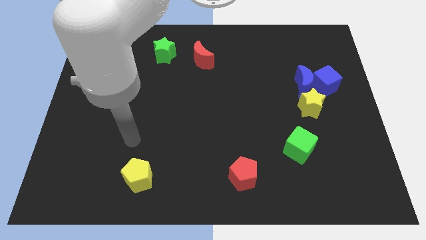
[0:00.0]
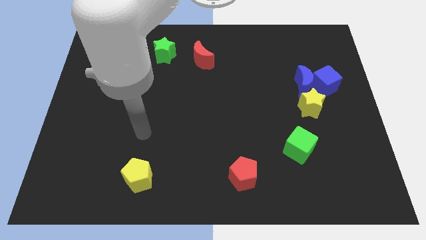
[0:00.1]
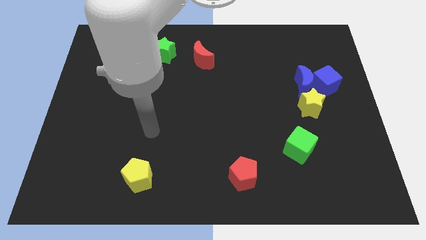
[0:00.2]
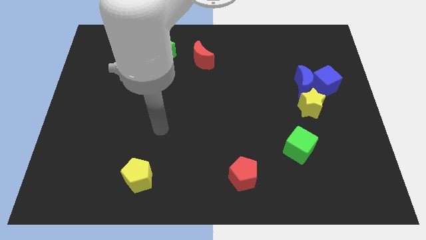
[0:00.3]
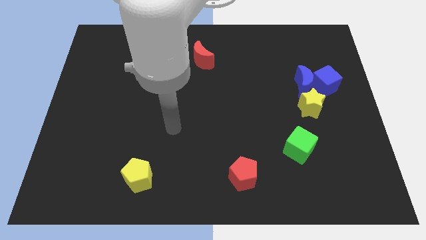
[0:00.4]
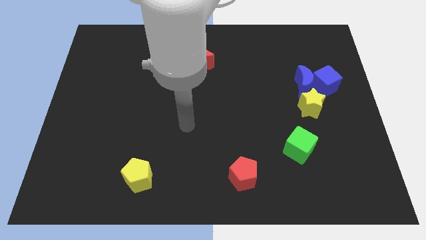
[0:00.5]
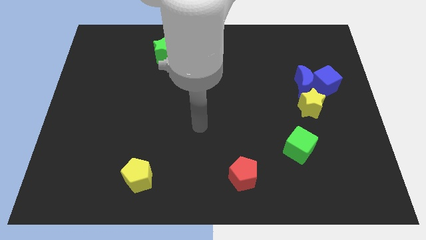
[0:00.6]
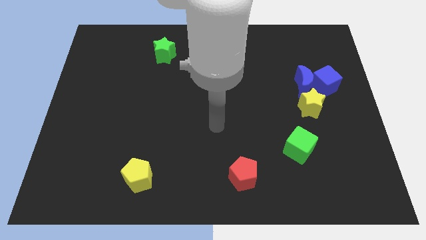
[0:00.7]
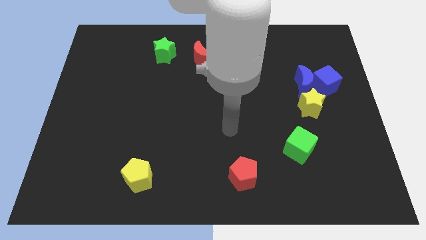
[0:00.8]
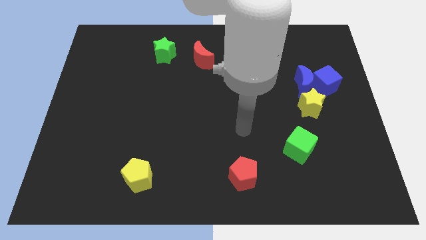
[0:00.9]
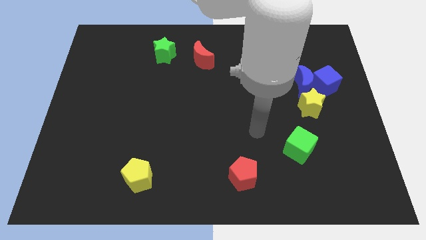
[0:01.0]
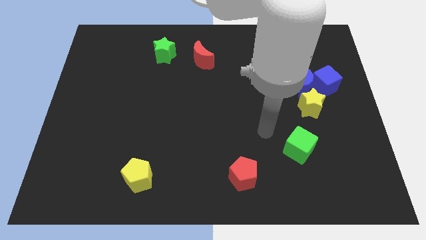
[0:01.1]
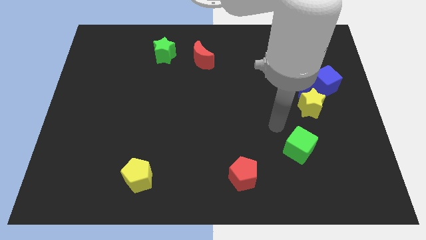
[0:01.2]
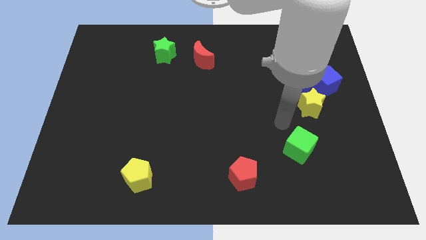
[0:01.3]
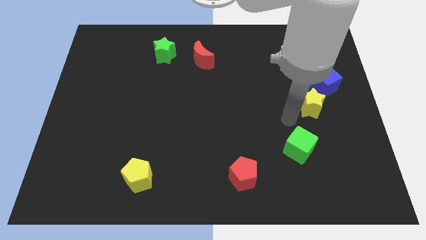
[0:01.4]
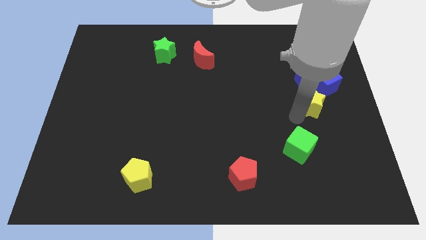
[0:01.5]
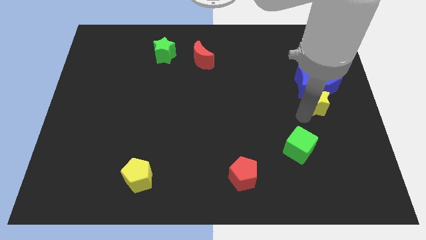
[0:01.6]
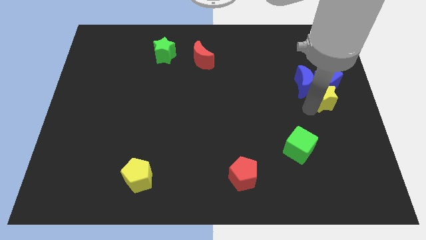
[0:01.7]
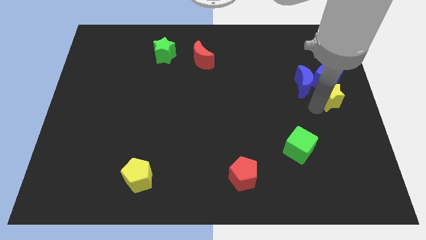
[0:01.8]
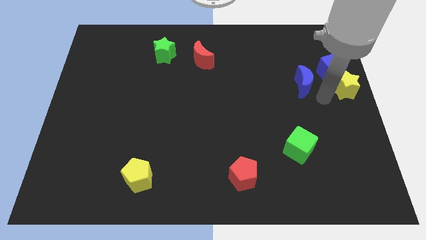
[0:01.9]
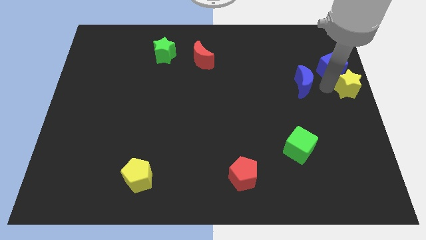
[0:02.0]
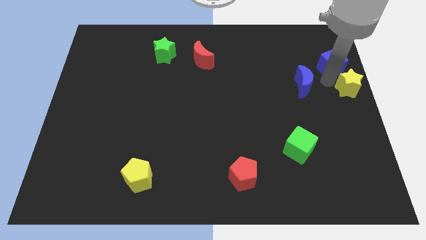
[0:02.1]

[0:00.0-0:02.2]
pull the blue moon apart from the blue cube and yellow star

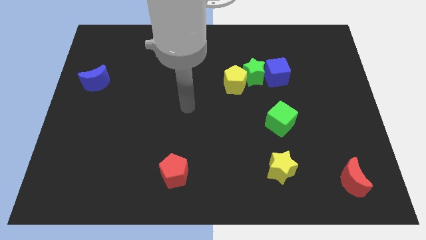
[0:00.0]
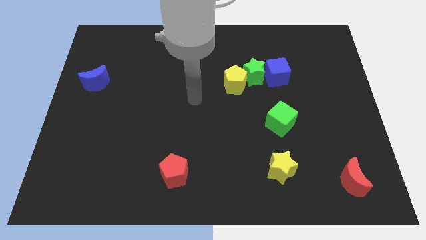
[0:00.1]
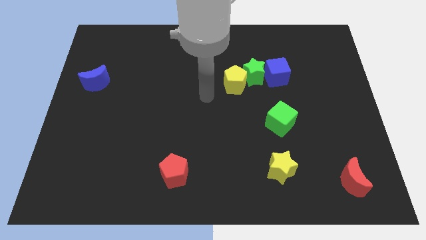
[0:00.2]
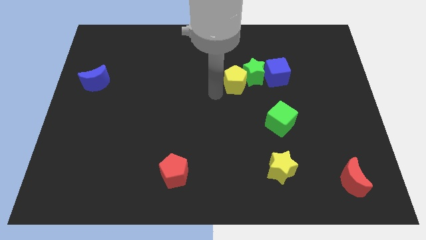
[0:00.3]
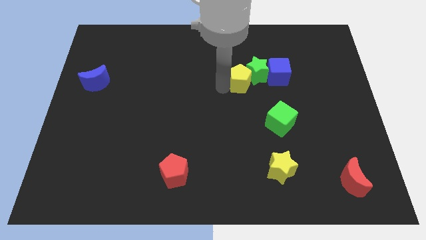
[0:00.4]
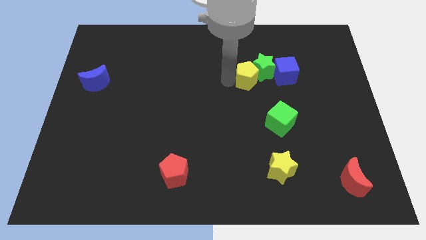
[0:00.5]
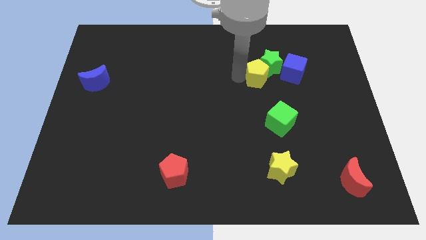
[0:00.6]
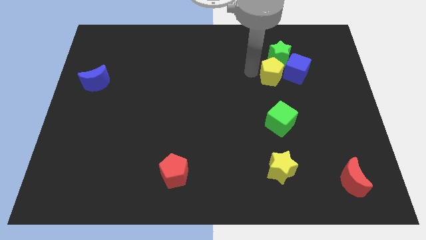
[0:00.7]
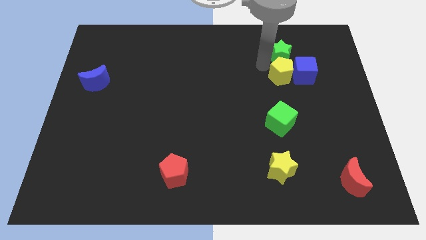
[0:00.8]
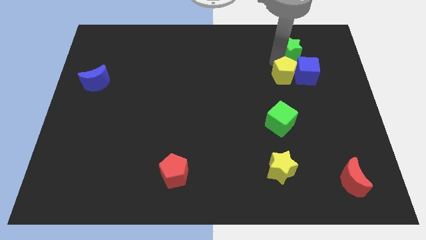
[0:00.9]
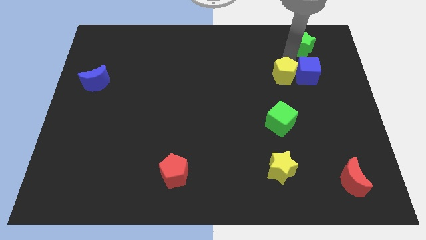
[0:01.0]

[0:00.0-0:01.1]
move the blue cube away from the green star

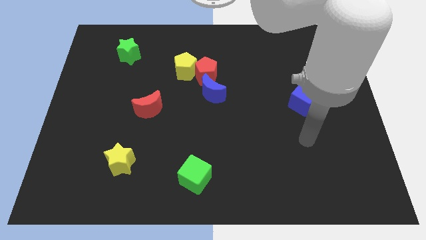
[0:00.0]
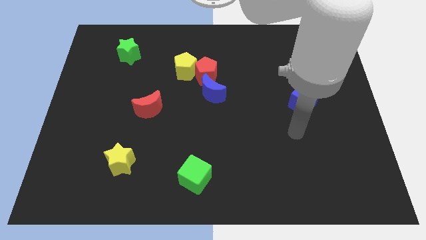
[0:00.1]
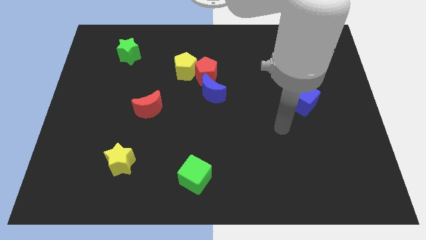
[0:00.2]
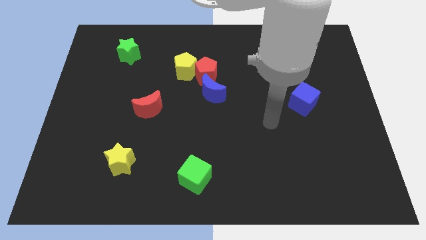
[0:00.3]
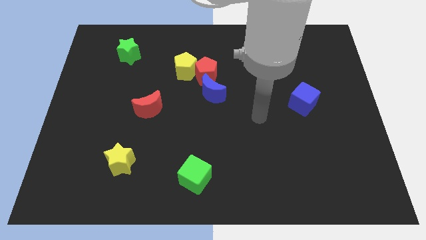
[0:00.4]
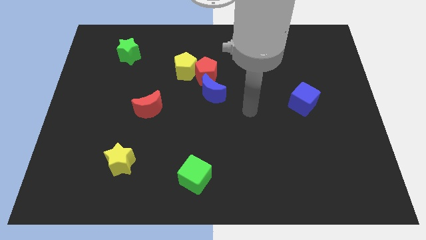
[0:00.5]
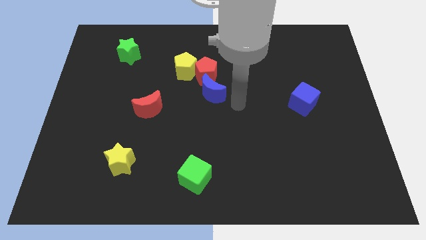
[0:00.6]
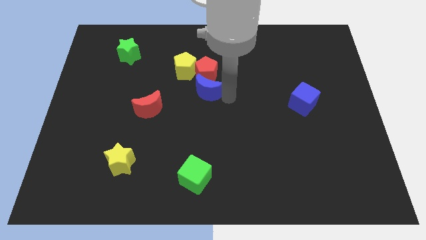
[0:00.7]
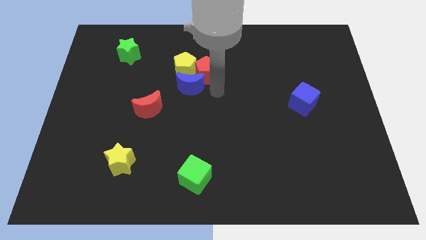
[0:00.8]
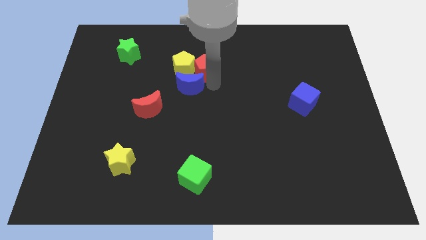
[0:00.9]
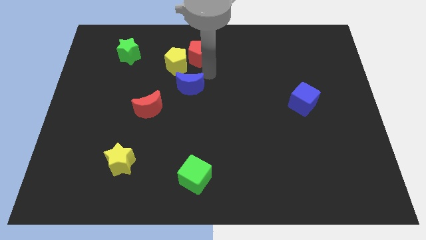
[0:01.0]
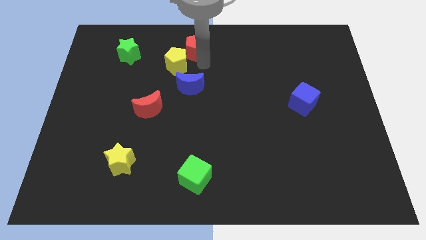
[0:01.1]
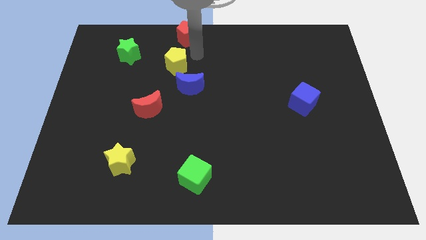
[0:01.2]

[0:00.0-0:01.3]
move the yellow pentagon away from the red pentagon

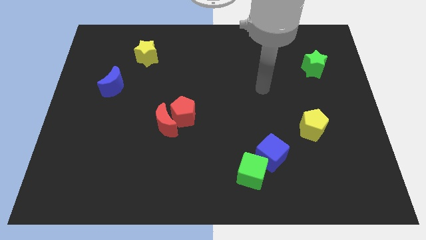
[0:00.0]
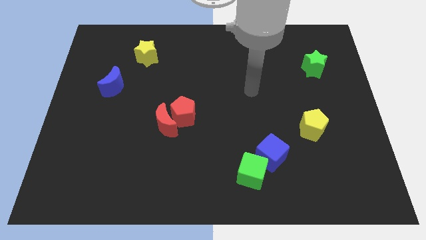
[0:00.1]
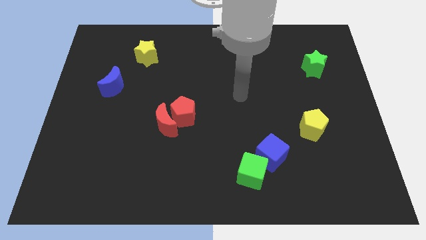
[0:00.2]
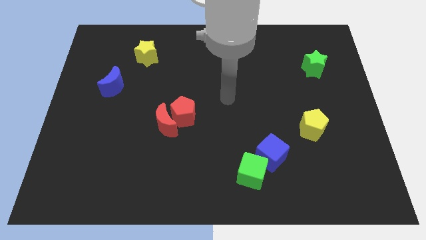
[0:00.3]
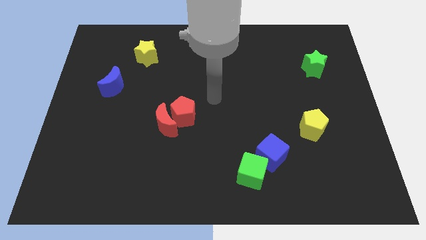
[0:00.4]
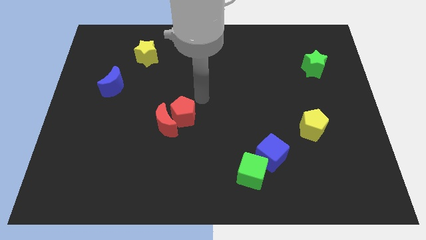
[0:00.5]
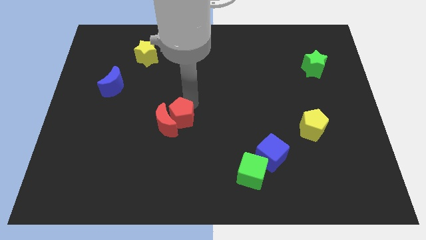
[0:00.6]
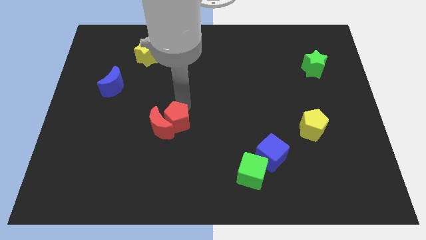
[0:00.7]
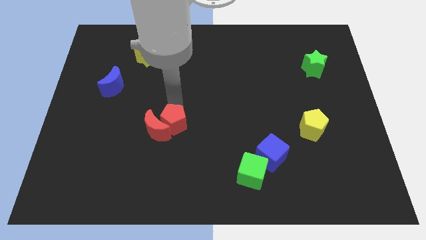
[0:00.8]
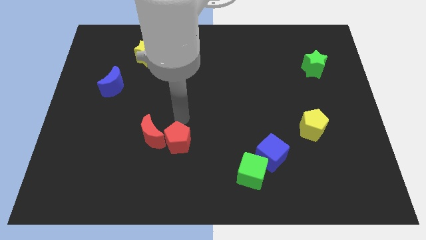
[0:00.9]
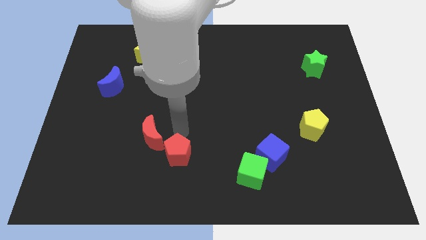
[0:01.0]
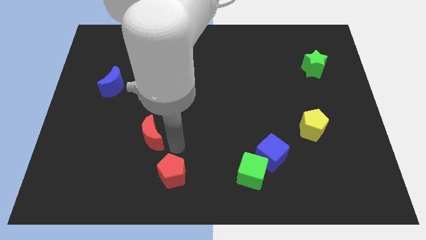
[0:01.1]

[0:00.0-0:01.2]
separate the red moon from the red pentagon

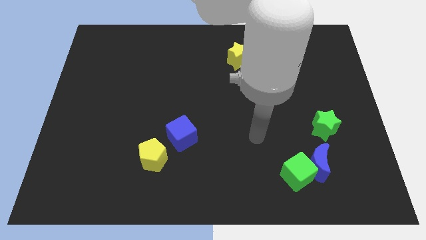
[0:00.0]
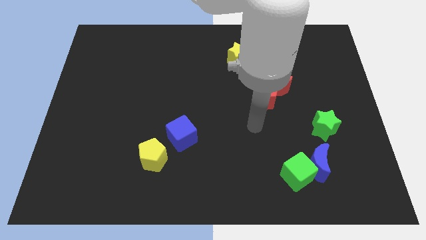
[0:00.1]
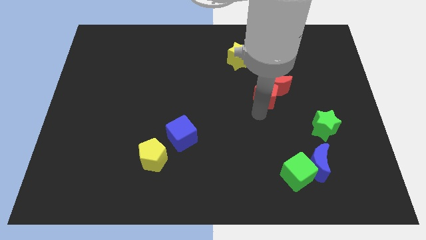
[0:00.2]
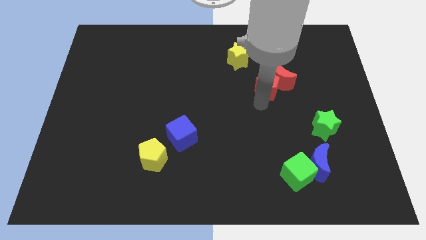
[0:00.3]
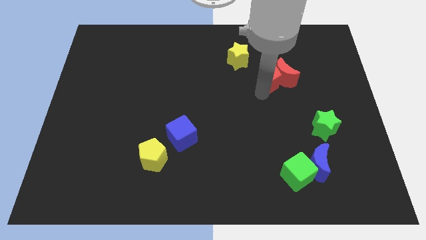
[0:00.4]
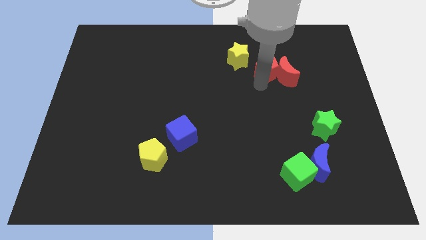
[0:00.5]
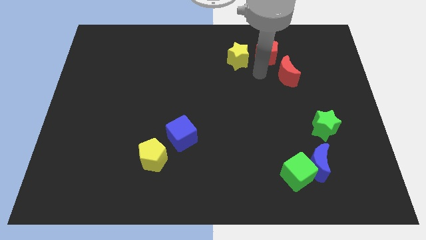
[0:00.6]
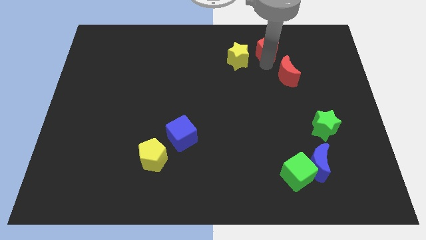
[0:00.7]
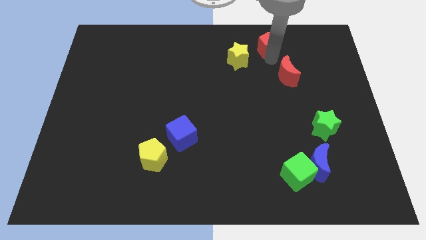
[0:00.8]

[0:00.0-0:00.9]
move the red moon away from the red pentagon

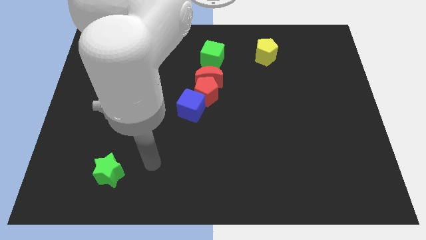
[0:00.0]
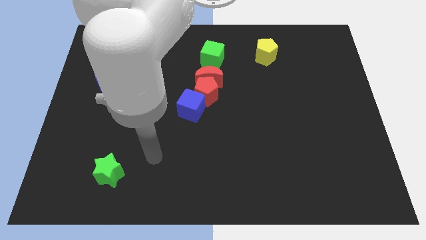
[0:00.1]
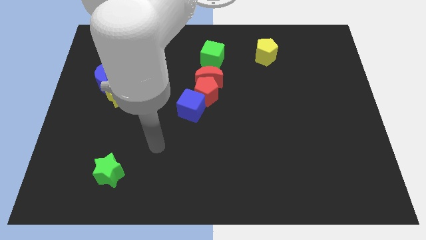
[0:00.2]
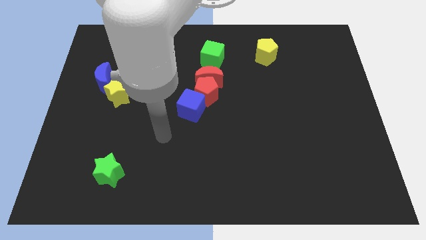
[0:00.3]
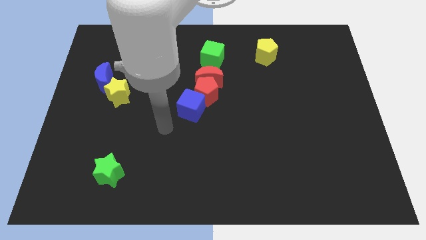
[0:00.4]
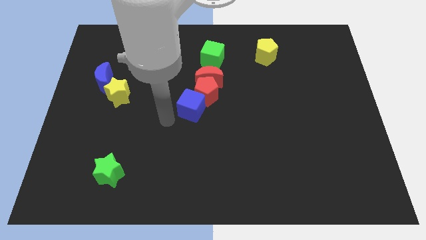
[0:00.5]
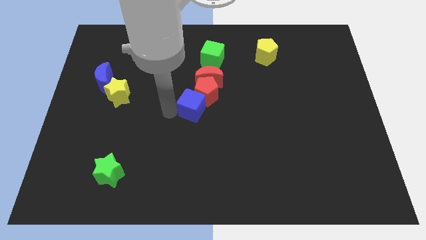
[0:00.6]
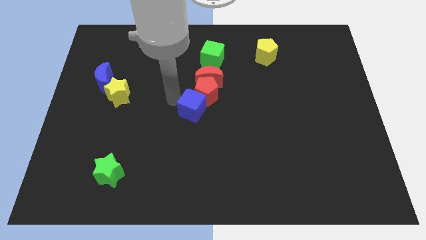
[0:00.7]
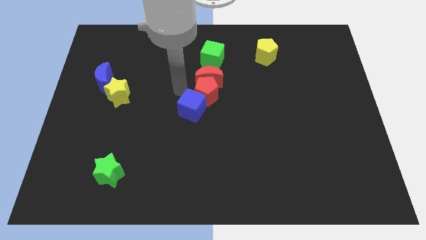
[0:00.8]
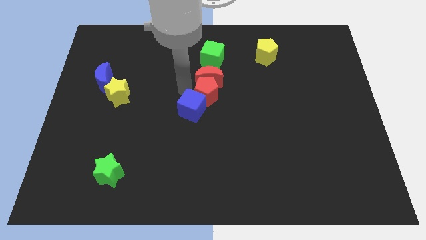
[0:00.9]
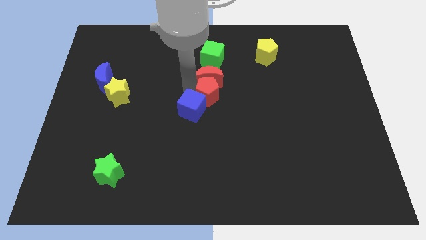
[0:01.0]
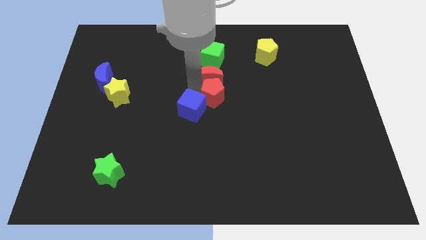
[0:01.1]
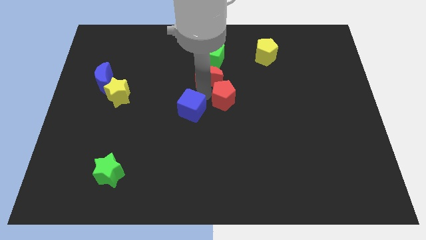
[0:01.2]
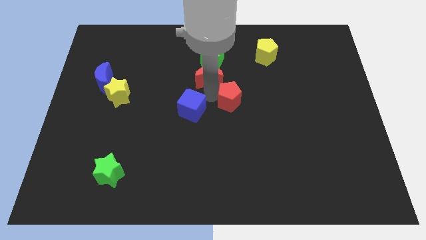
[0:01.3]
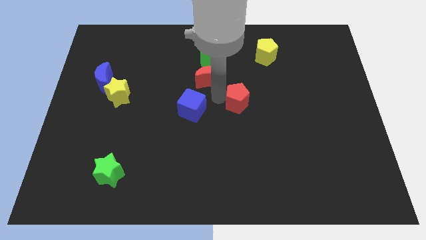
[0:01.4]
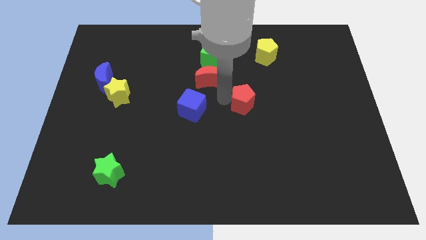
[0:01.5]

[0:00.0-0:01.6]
move the red pentagon away from the red moon and blue cube

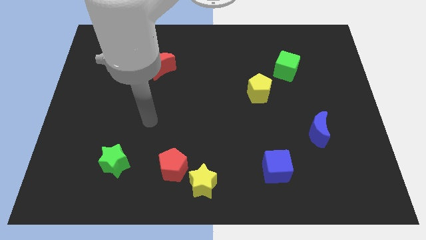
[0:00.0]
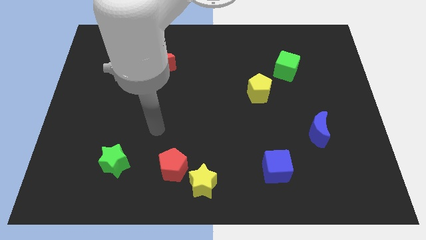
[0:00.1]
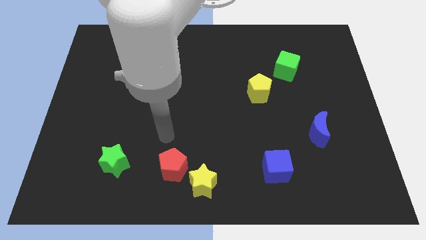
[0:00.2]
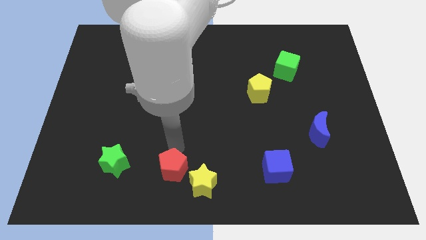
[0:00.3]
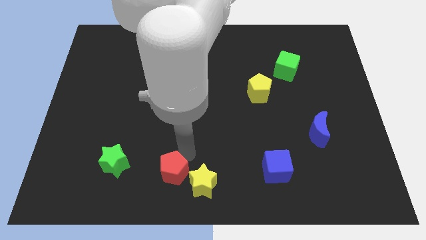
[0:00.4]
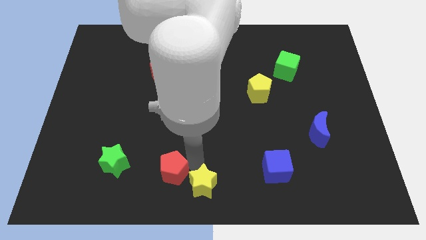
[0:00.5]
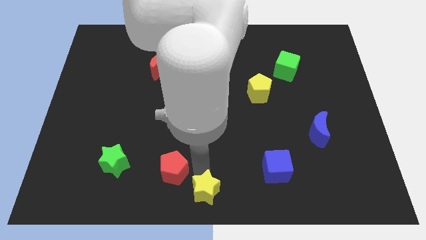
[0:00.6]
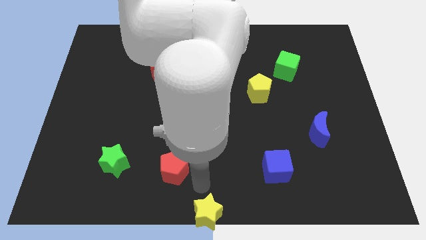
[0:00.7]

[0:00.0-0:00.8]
move the red pentagon away from the yellow star

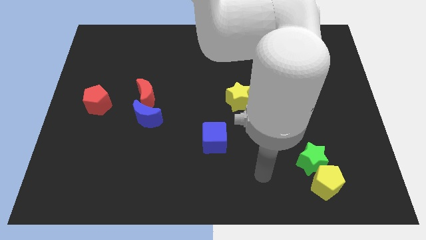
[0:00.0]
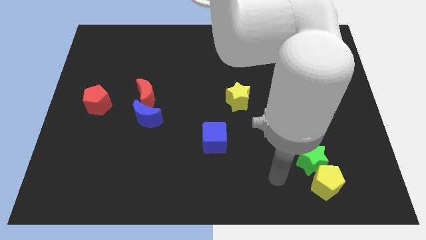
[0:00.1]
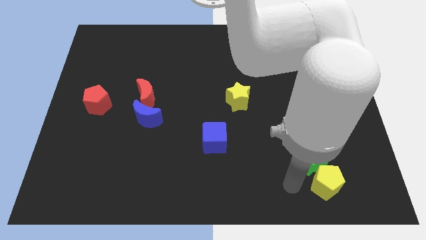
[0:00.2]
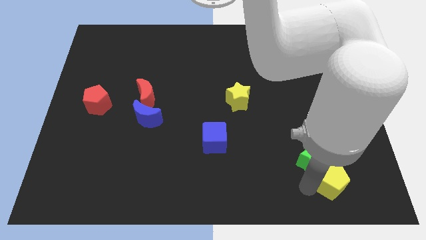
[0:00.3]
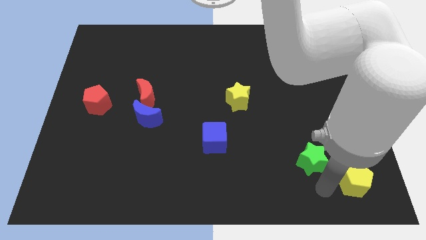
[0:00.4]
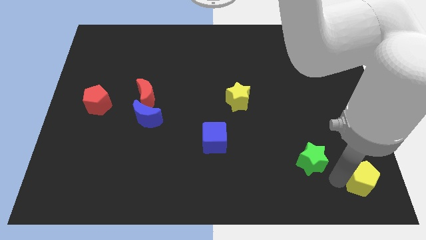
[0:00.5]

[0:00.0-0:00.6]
separate the green star from the yellow pentagon
